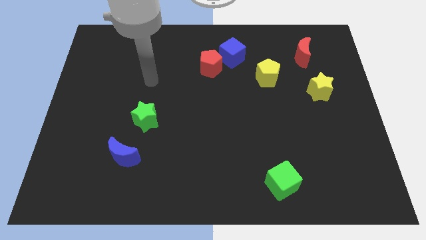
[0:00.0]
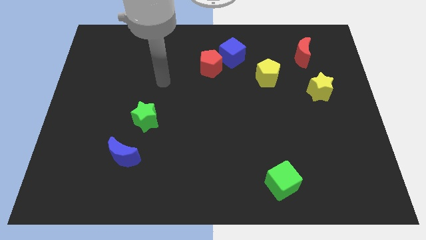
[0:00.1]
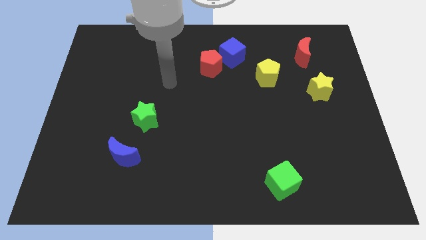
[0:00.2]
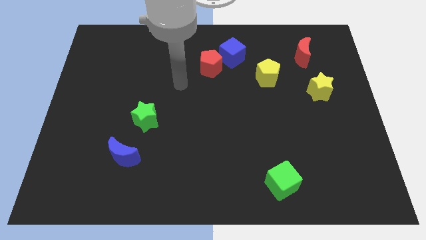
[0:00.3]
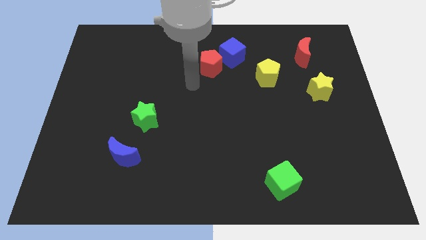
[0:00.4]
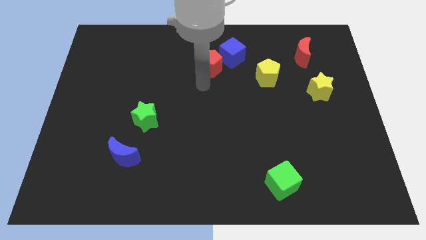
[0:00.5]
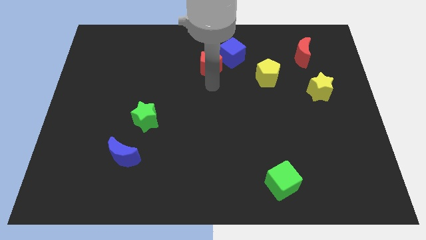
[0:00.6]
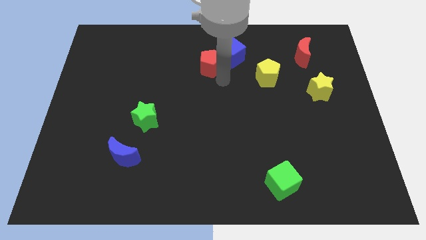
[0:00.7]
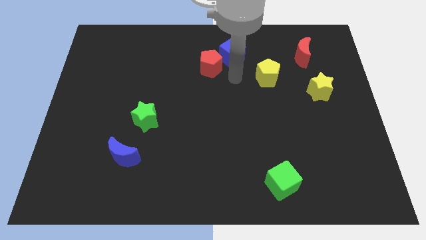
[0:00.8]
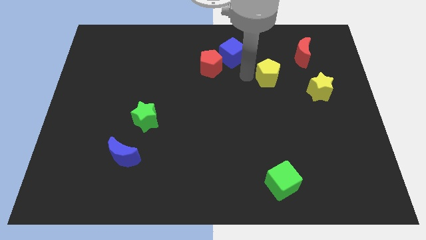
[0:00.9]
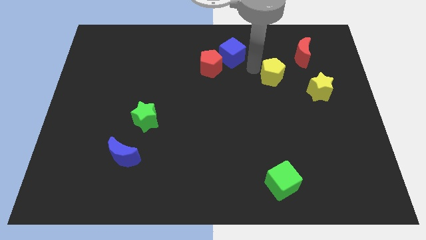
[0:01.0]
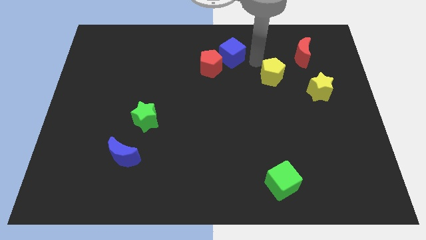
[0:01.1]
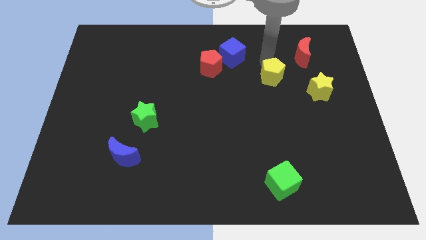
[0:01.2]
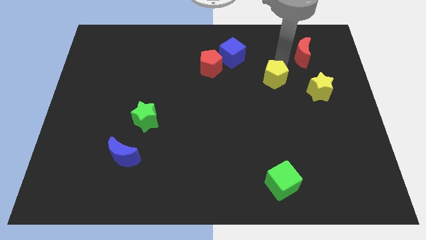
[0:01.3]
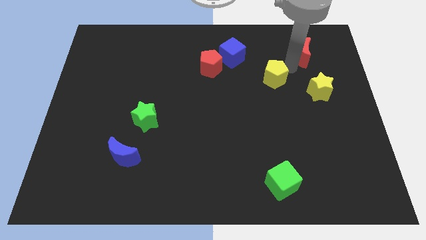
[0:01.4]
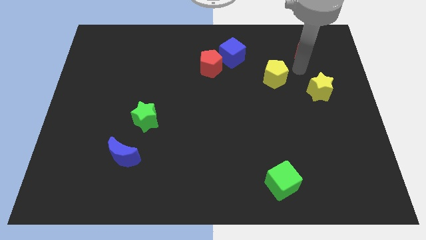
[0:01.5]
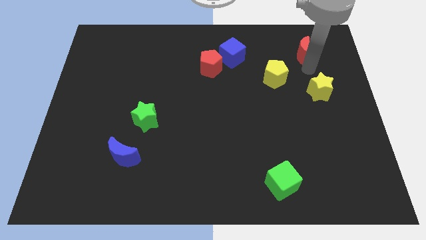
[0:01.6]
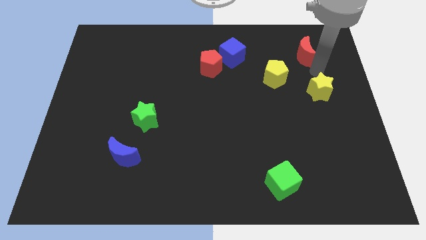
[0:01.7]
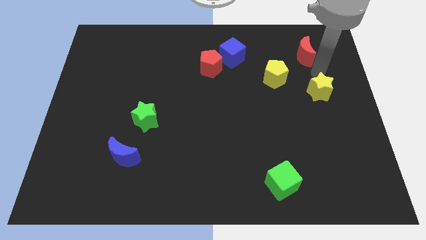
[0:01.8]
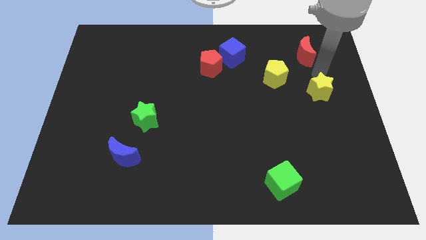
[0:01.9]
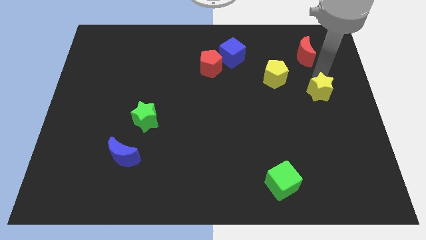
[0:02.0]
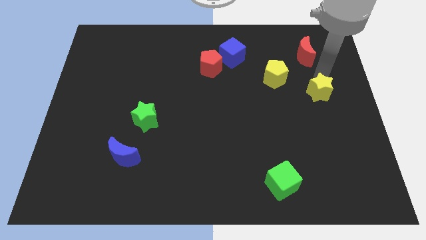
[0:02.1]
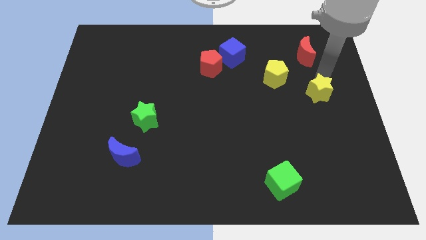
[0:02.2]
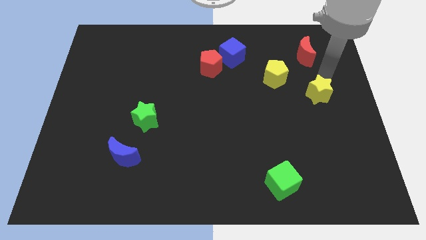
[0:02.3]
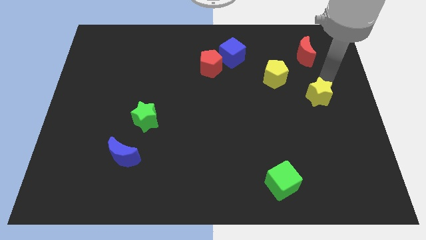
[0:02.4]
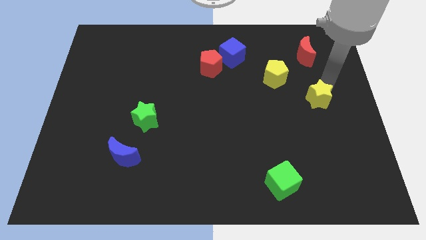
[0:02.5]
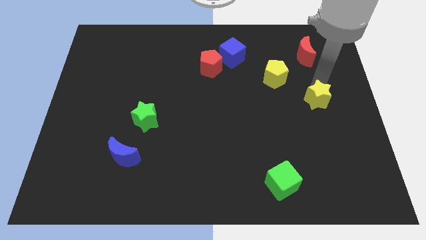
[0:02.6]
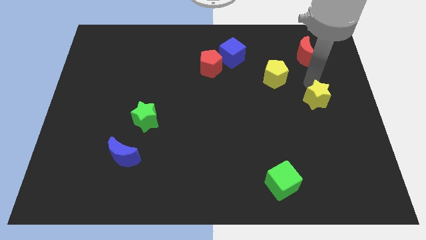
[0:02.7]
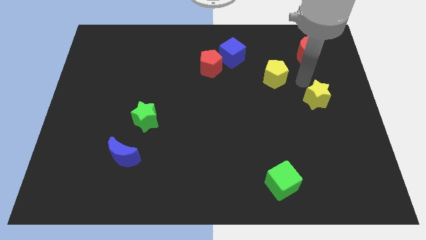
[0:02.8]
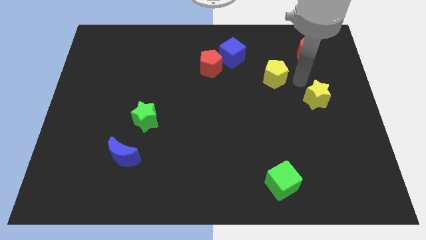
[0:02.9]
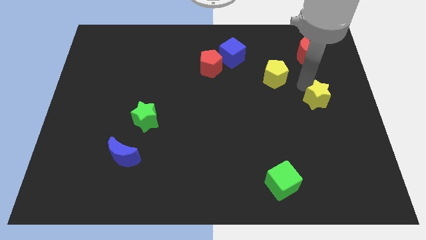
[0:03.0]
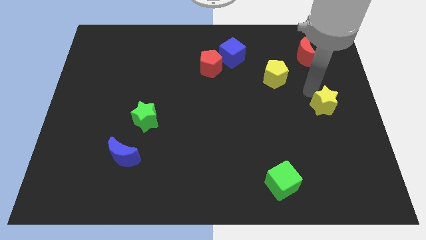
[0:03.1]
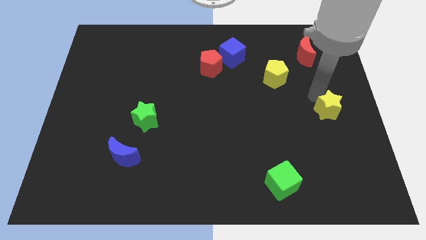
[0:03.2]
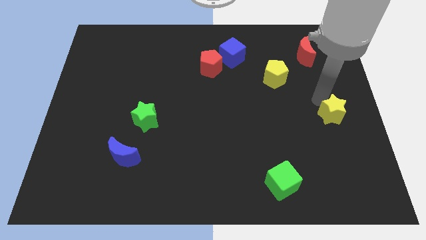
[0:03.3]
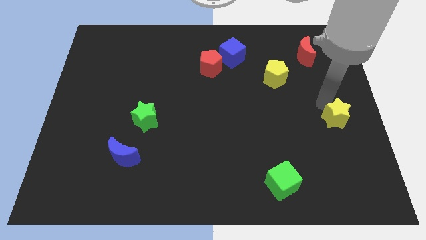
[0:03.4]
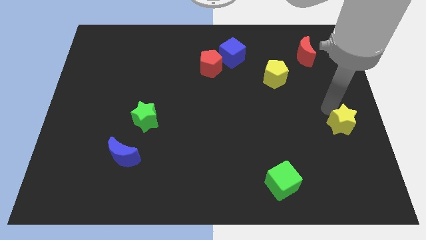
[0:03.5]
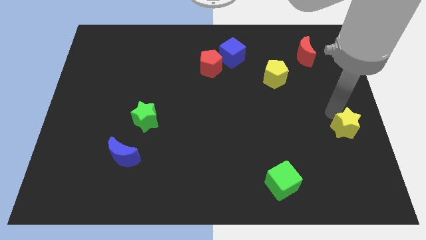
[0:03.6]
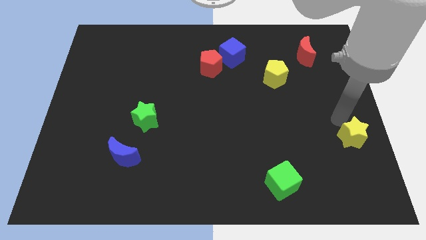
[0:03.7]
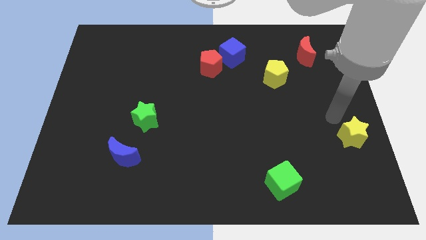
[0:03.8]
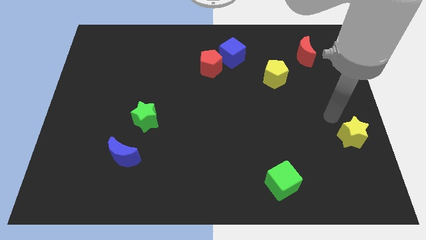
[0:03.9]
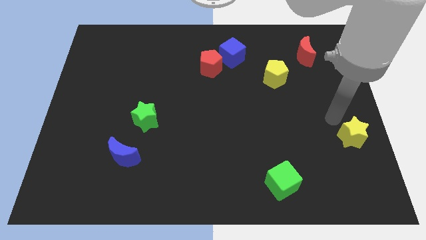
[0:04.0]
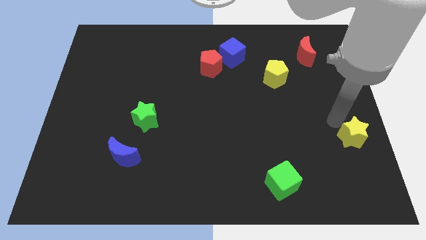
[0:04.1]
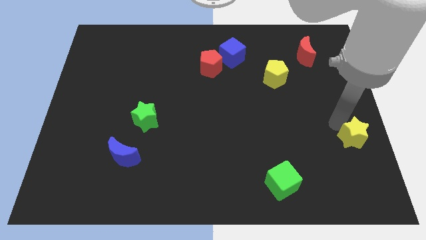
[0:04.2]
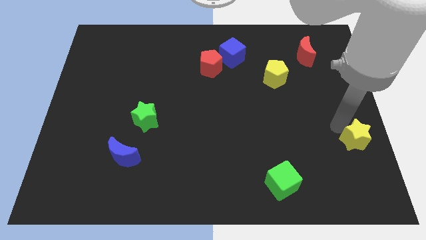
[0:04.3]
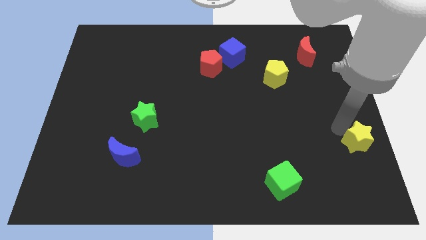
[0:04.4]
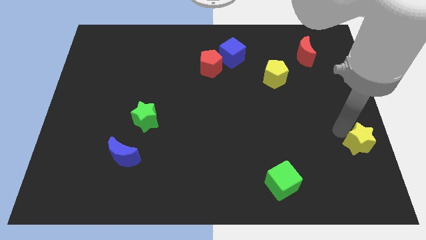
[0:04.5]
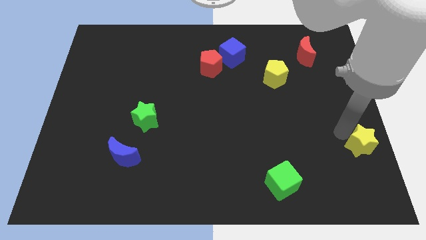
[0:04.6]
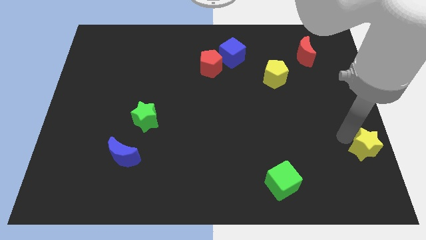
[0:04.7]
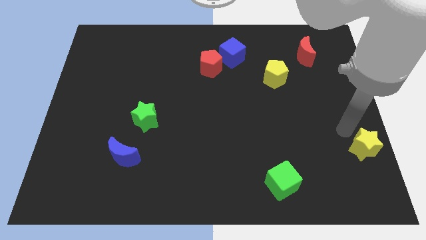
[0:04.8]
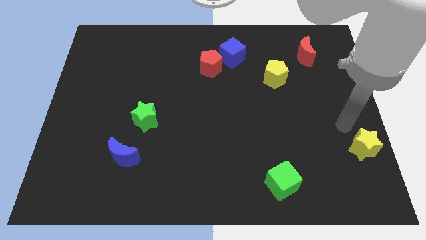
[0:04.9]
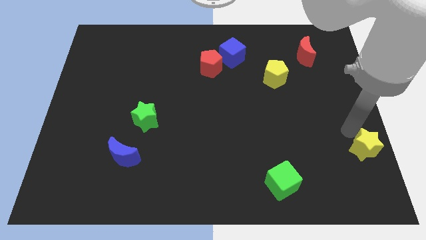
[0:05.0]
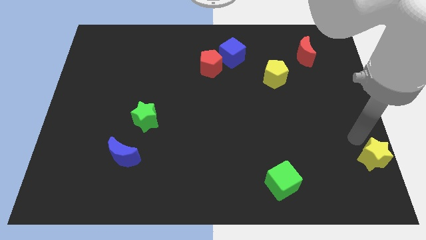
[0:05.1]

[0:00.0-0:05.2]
put the yellow star to the bottom right of the board

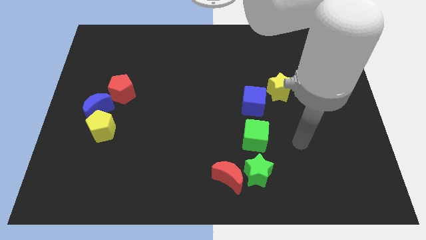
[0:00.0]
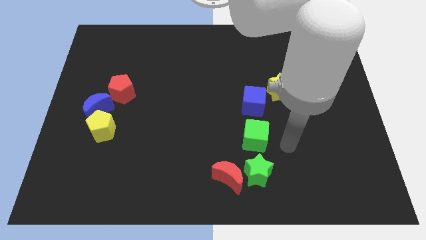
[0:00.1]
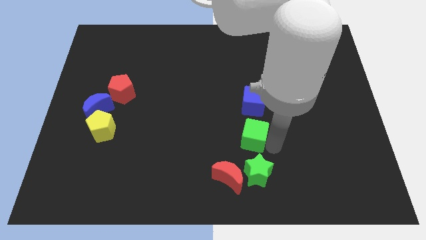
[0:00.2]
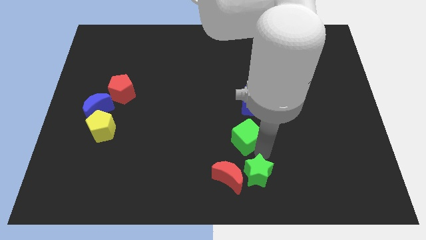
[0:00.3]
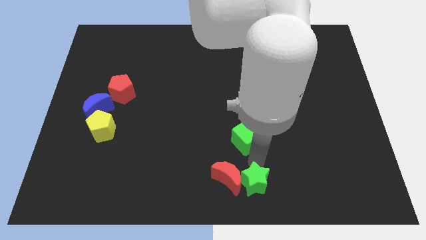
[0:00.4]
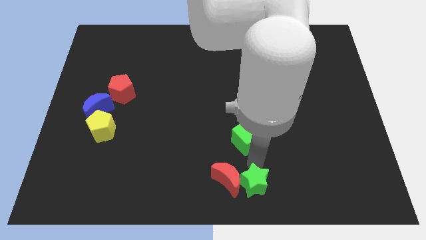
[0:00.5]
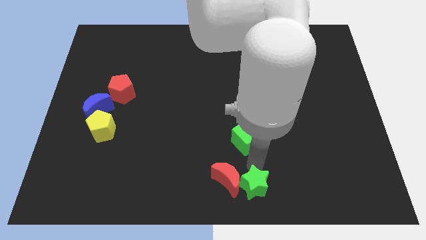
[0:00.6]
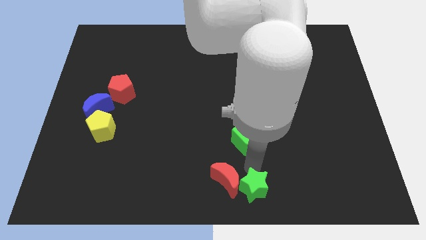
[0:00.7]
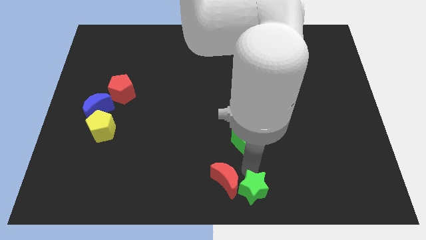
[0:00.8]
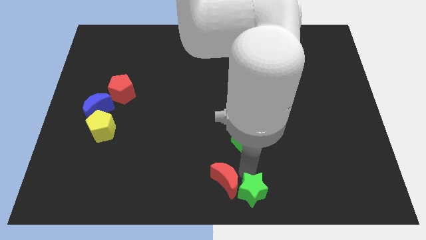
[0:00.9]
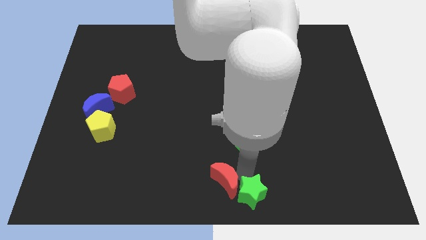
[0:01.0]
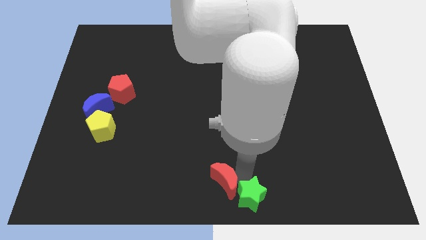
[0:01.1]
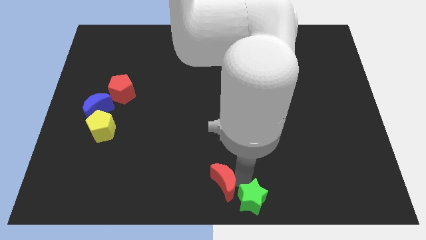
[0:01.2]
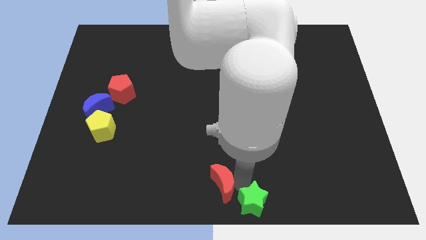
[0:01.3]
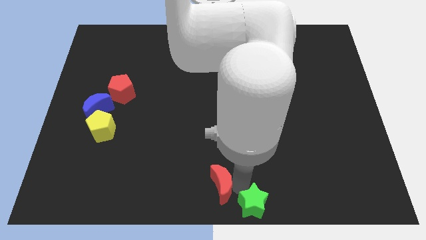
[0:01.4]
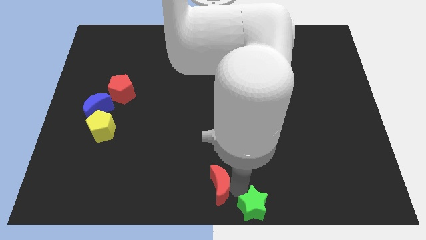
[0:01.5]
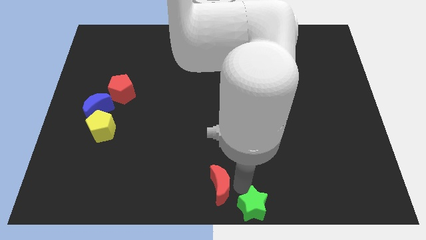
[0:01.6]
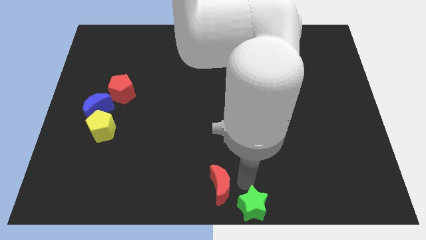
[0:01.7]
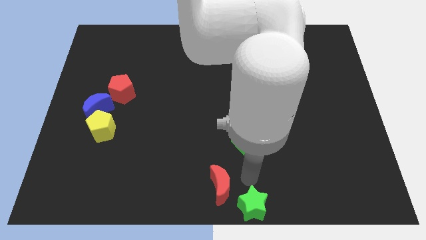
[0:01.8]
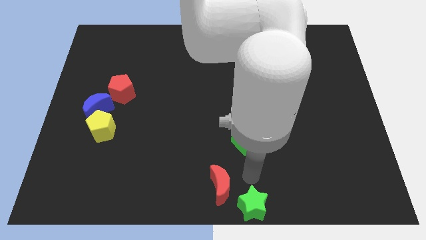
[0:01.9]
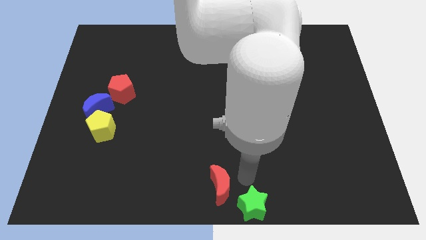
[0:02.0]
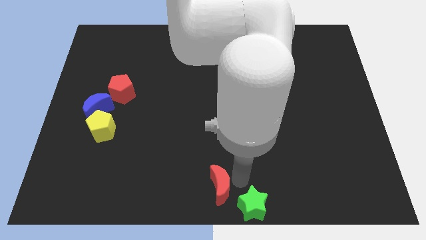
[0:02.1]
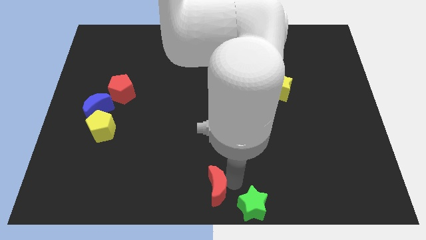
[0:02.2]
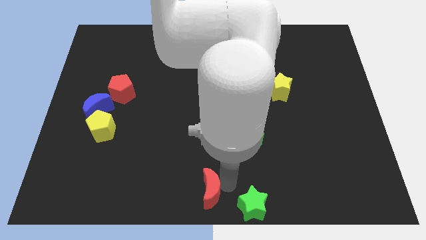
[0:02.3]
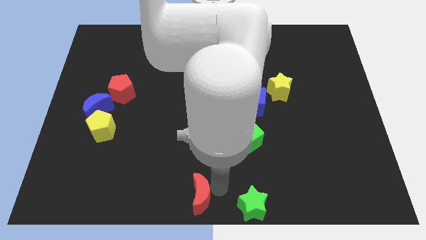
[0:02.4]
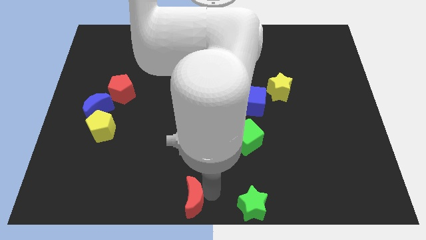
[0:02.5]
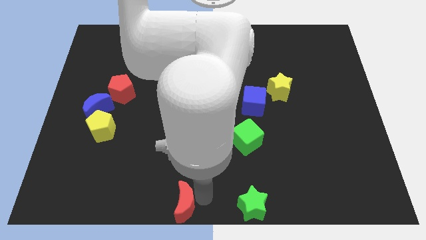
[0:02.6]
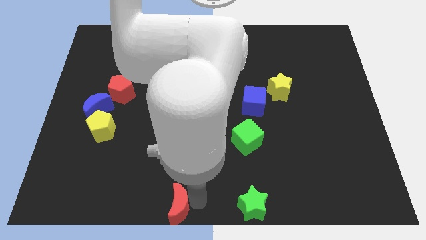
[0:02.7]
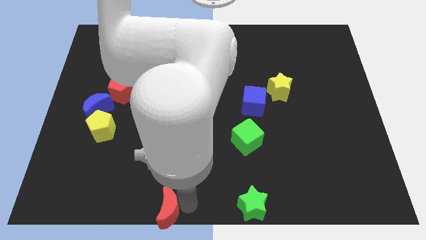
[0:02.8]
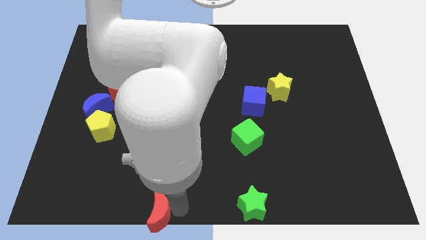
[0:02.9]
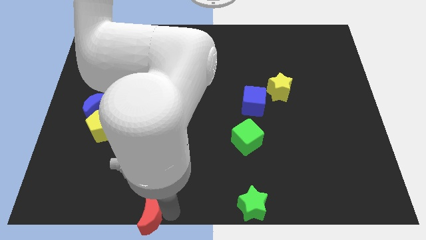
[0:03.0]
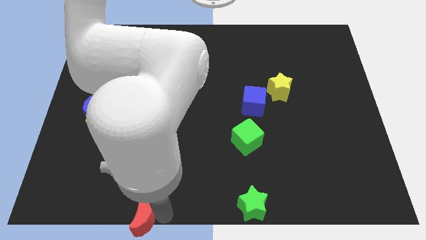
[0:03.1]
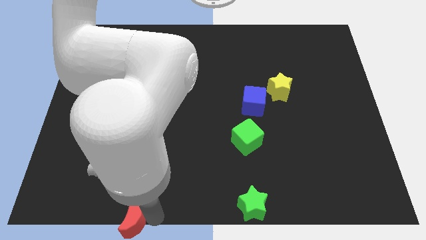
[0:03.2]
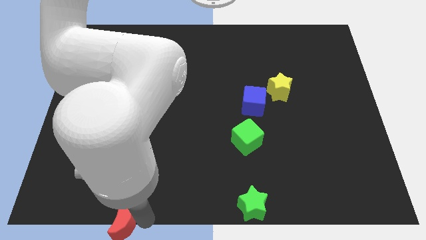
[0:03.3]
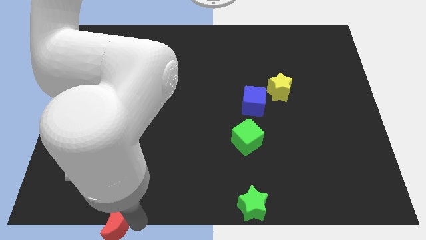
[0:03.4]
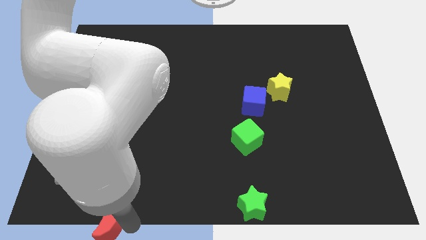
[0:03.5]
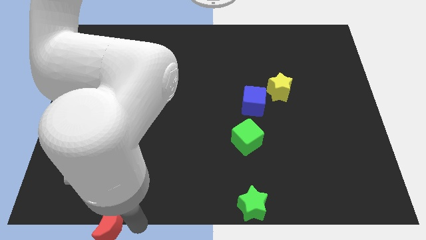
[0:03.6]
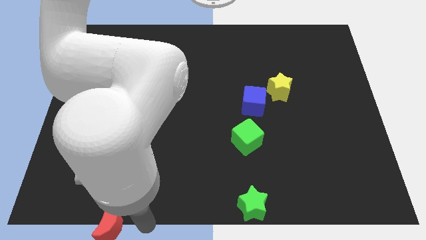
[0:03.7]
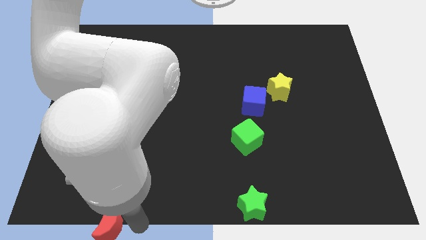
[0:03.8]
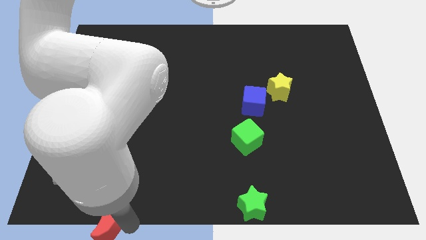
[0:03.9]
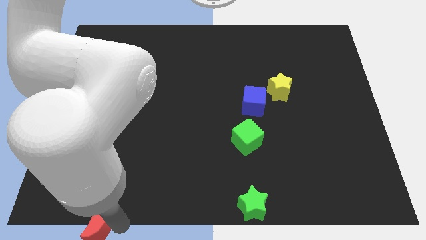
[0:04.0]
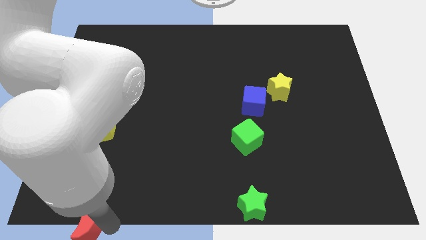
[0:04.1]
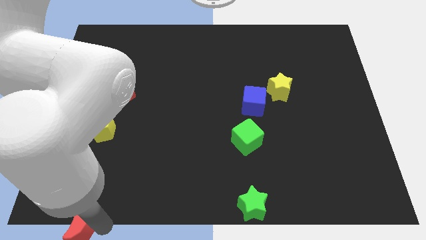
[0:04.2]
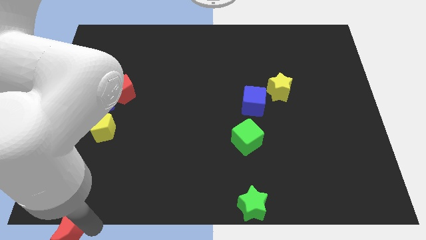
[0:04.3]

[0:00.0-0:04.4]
move the red moon to the bottom left
